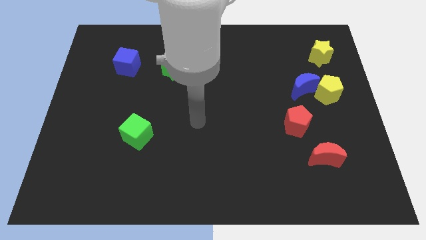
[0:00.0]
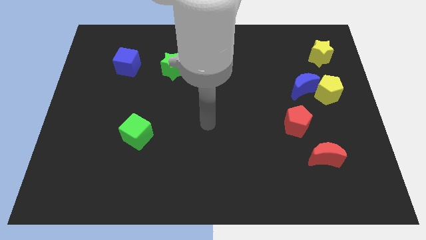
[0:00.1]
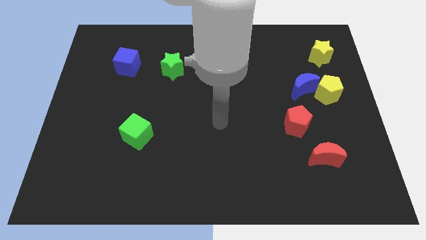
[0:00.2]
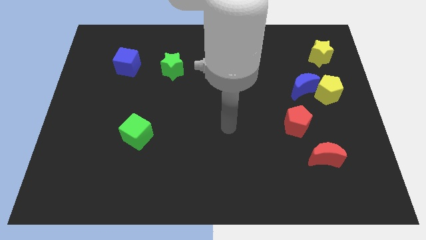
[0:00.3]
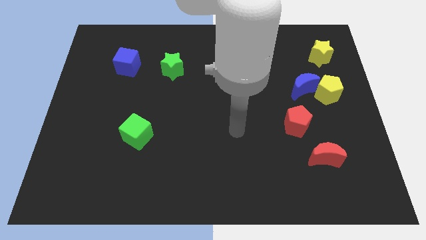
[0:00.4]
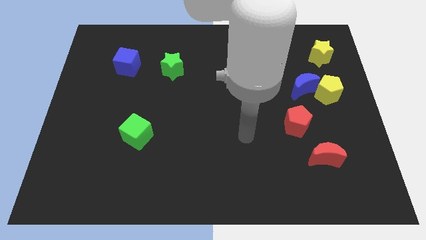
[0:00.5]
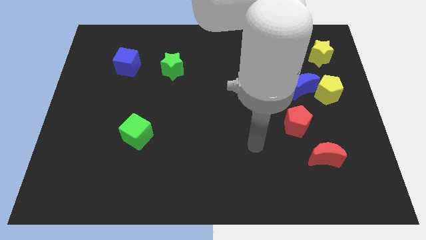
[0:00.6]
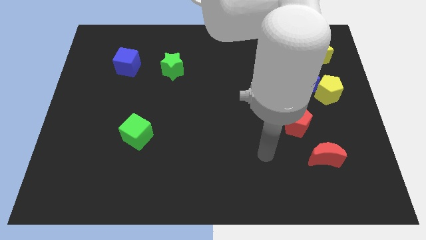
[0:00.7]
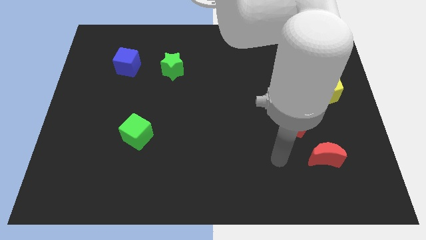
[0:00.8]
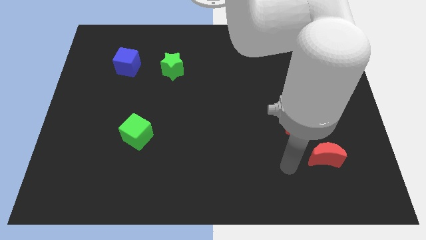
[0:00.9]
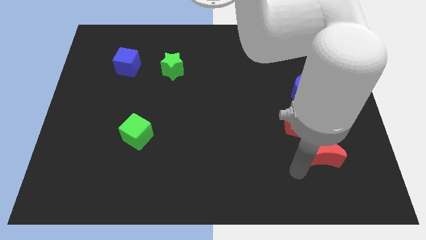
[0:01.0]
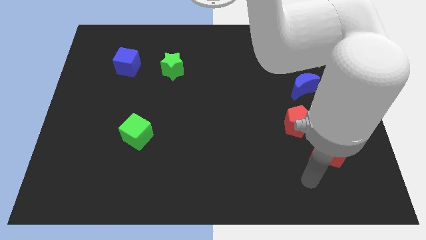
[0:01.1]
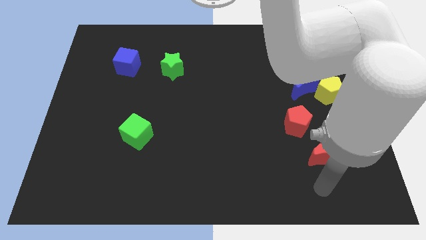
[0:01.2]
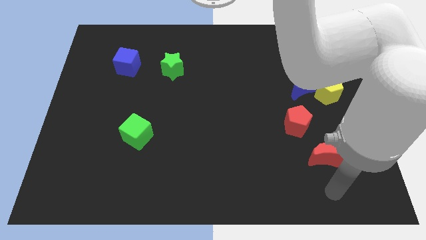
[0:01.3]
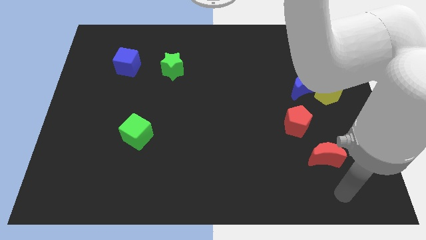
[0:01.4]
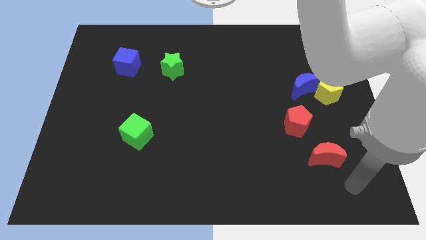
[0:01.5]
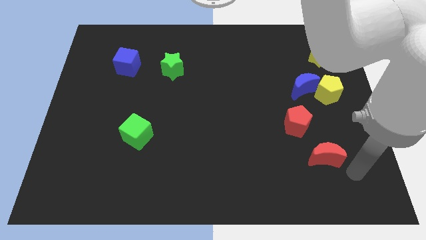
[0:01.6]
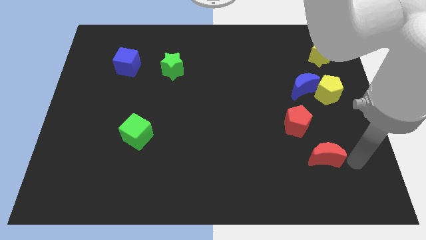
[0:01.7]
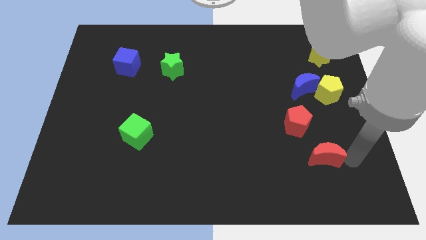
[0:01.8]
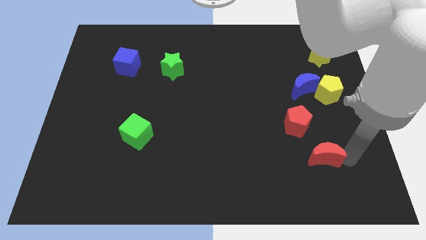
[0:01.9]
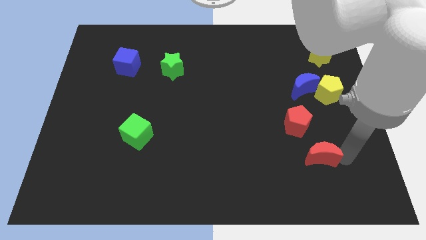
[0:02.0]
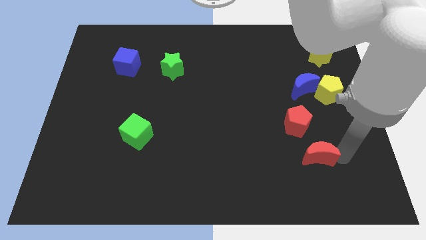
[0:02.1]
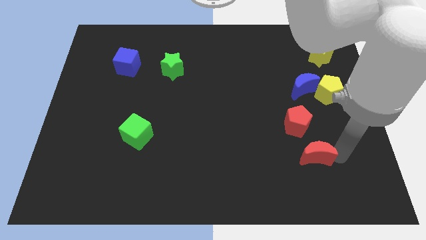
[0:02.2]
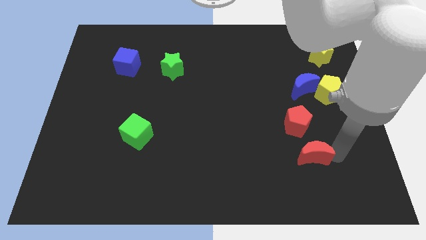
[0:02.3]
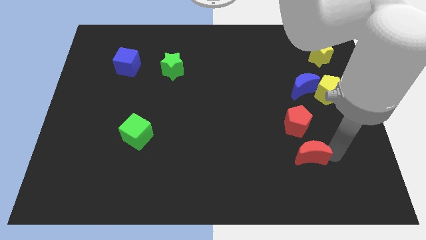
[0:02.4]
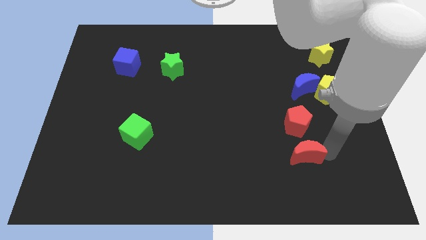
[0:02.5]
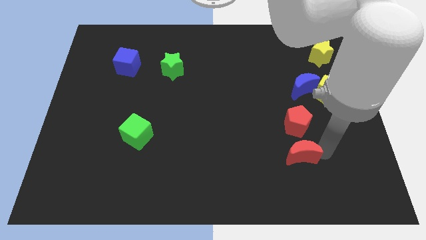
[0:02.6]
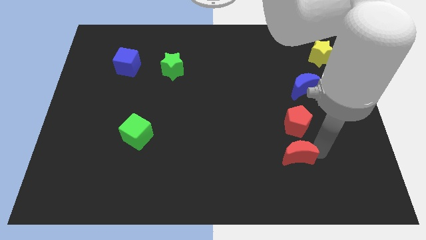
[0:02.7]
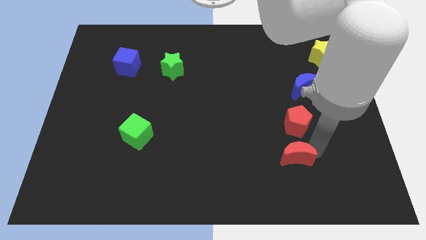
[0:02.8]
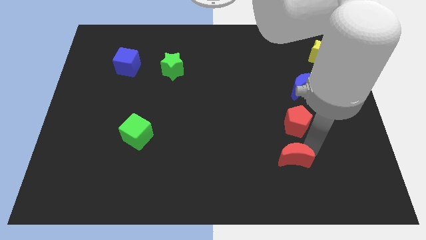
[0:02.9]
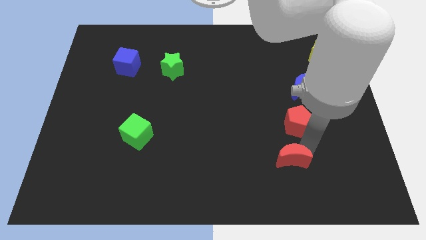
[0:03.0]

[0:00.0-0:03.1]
slightly move the red moon to the left

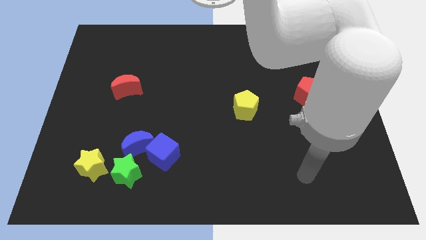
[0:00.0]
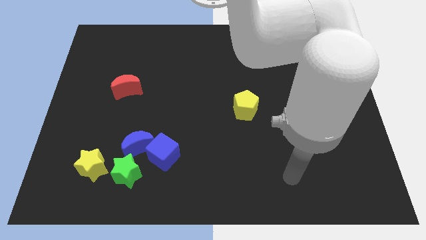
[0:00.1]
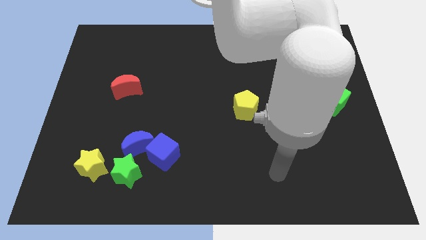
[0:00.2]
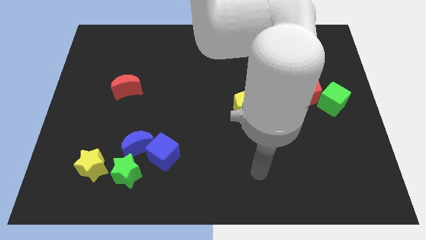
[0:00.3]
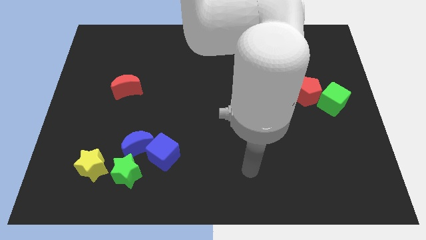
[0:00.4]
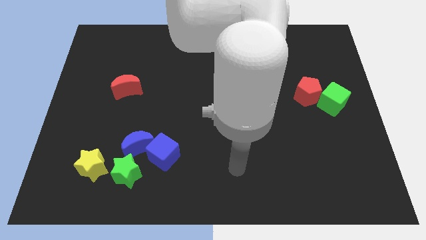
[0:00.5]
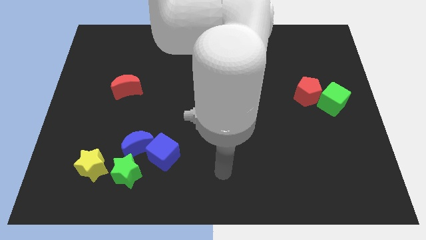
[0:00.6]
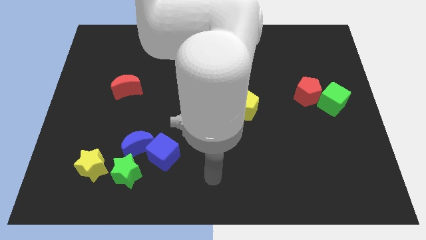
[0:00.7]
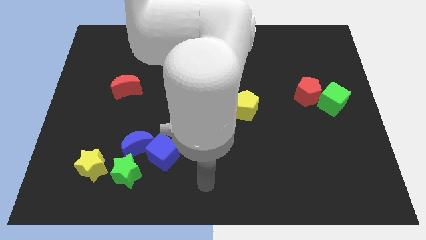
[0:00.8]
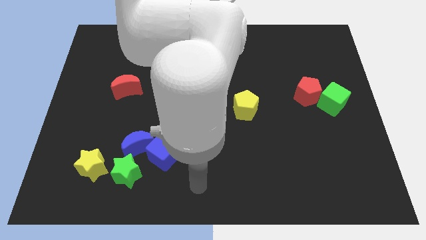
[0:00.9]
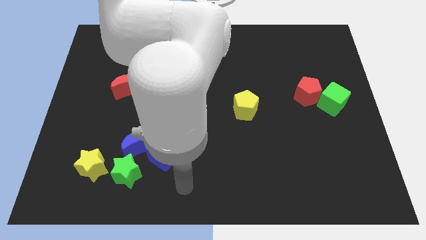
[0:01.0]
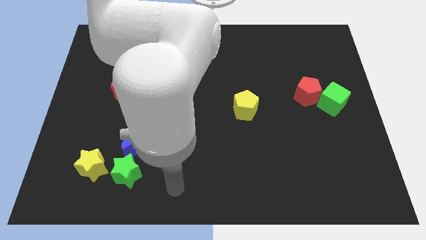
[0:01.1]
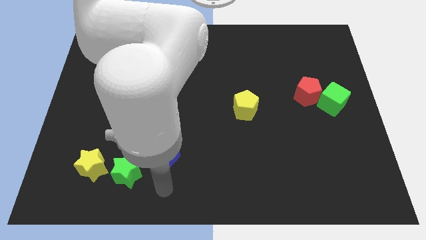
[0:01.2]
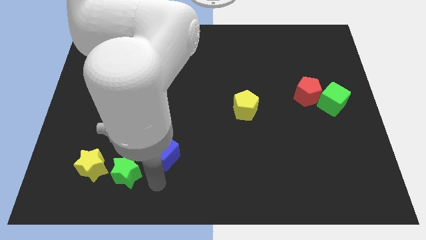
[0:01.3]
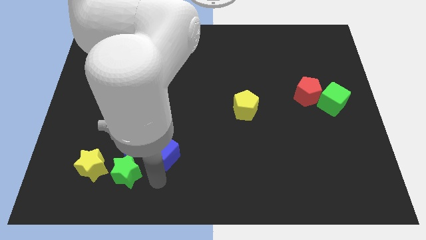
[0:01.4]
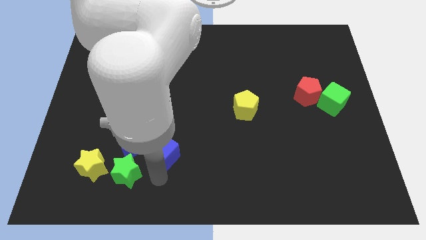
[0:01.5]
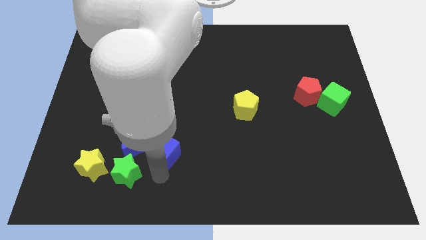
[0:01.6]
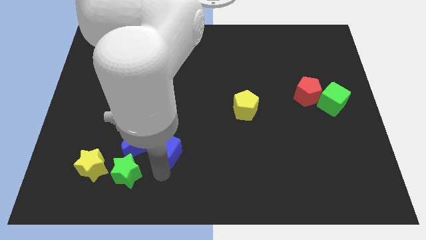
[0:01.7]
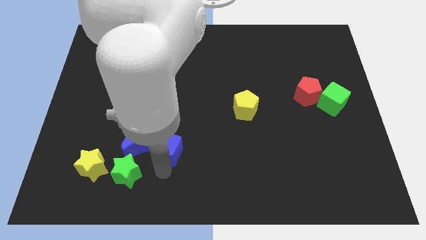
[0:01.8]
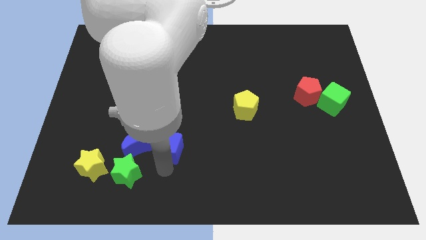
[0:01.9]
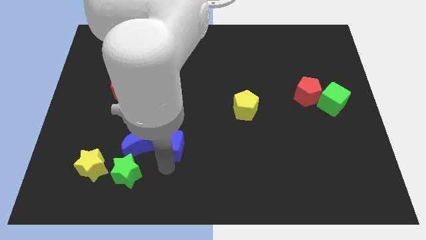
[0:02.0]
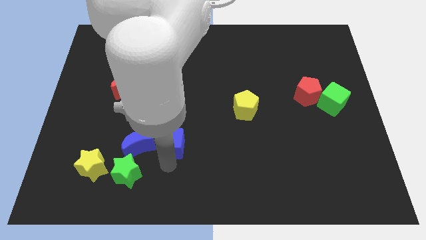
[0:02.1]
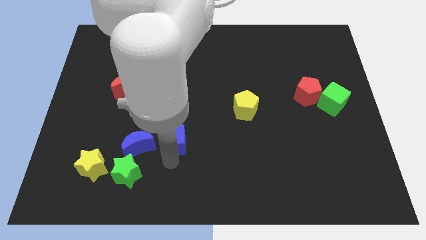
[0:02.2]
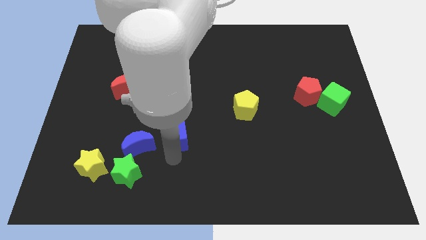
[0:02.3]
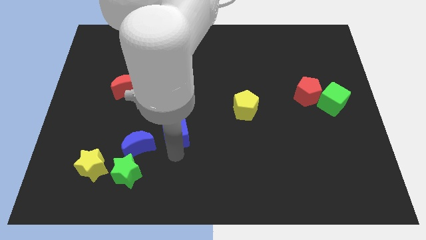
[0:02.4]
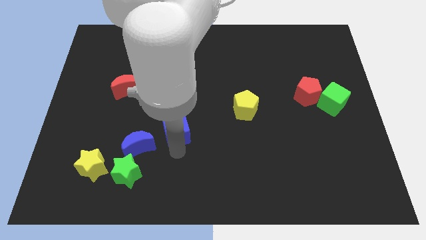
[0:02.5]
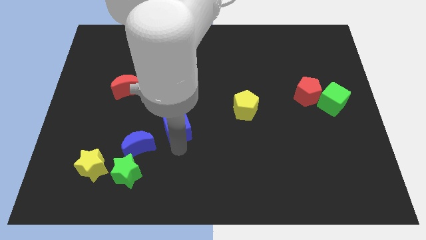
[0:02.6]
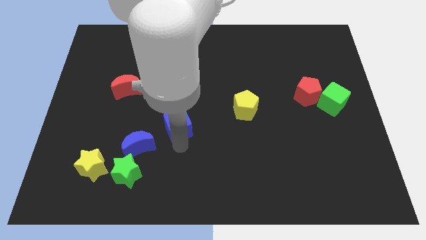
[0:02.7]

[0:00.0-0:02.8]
slightly slide the blue cube up

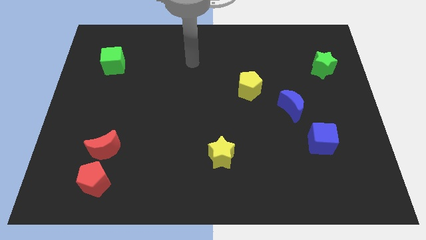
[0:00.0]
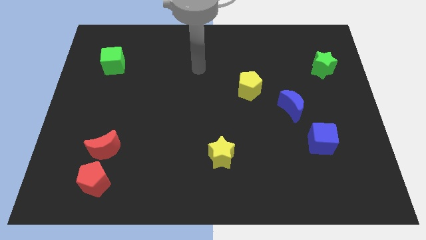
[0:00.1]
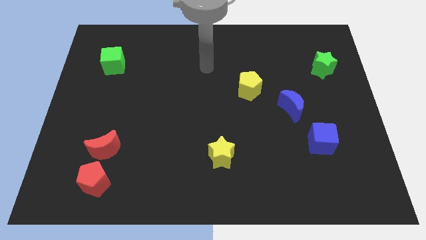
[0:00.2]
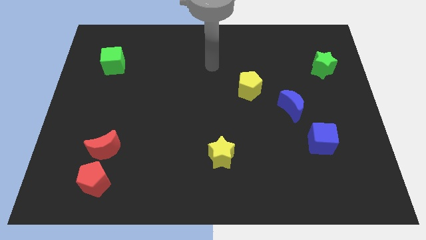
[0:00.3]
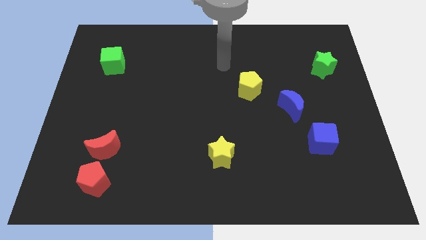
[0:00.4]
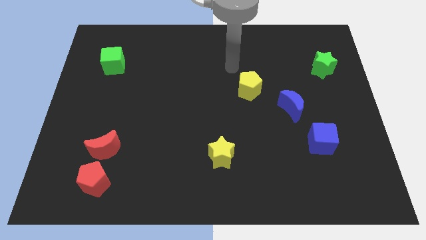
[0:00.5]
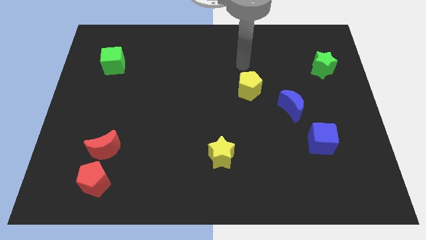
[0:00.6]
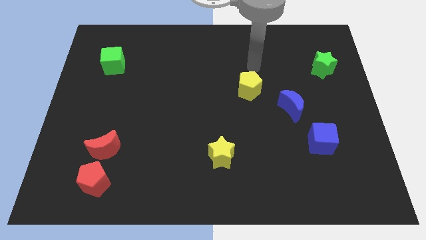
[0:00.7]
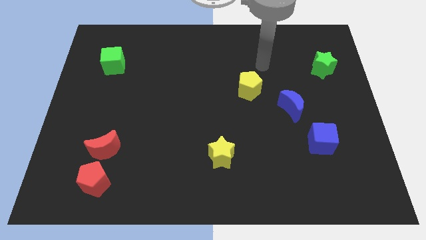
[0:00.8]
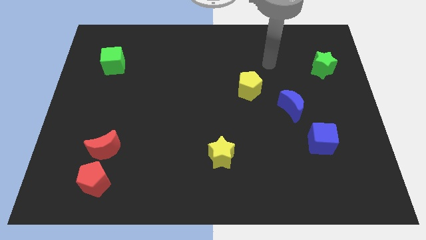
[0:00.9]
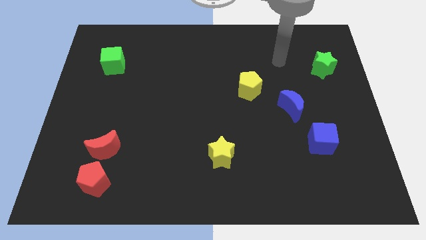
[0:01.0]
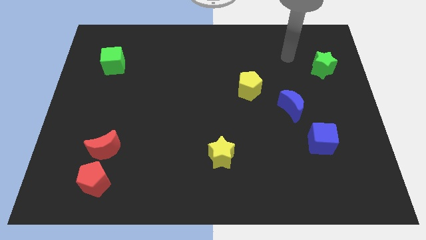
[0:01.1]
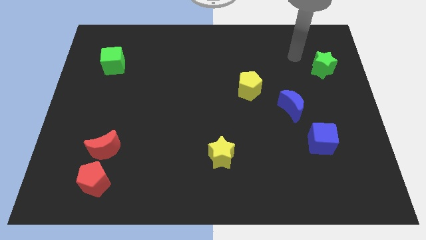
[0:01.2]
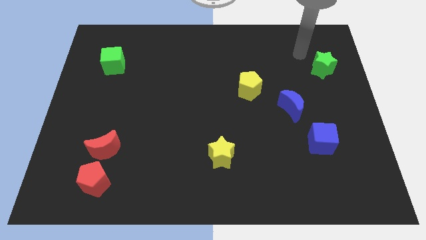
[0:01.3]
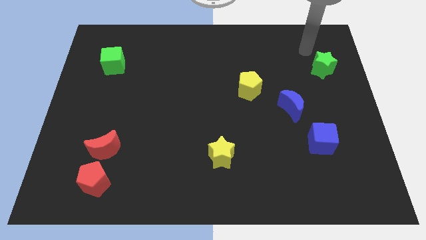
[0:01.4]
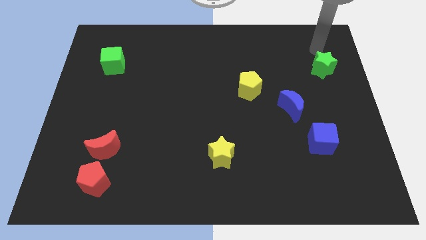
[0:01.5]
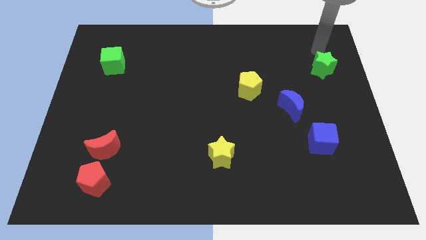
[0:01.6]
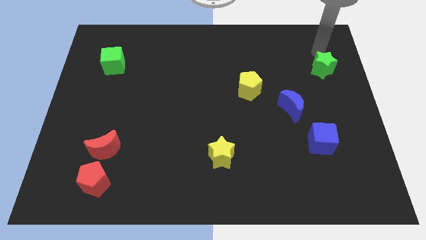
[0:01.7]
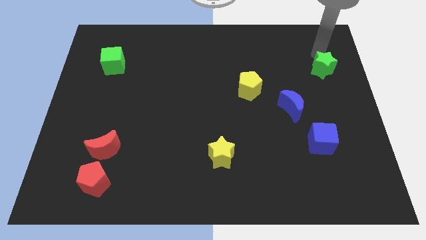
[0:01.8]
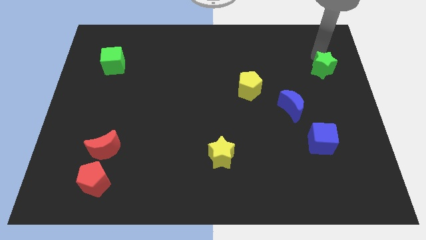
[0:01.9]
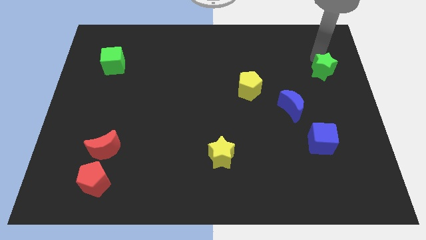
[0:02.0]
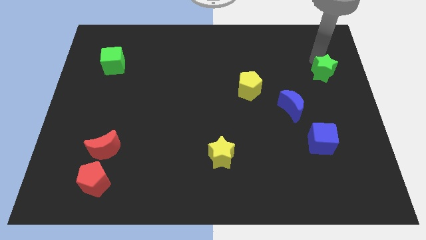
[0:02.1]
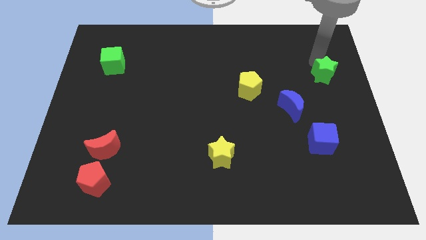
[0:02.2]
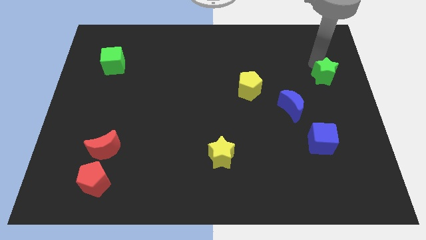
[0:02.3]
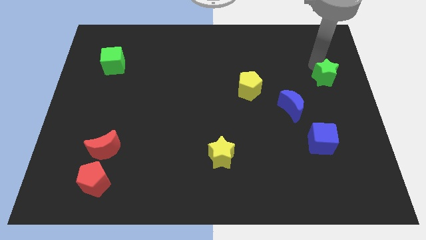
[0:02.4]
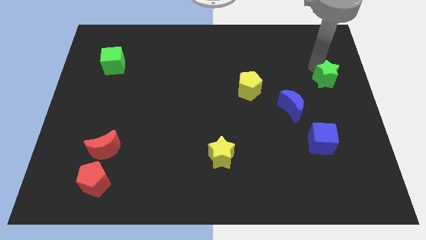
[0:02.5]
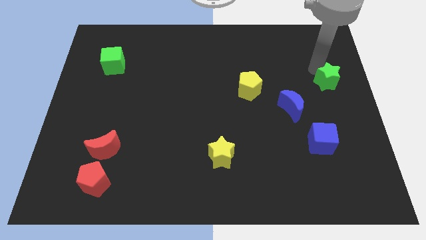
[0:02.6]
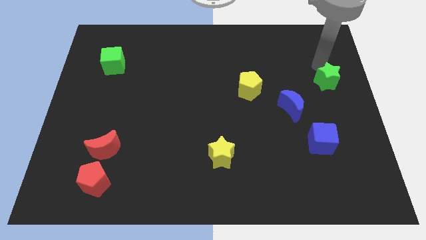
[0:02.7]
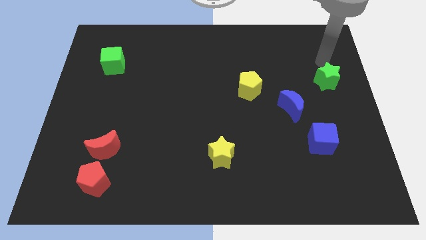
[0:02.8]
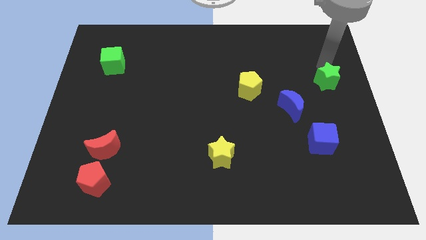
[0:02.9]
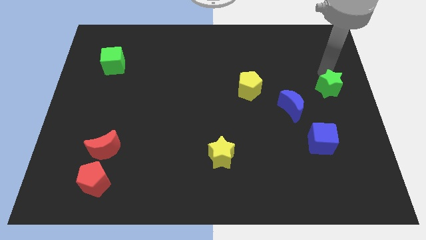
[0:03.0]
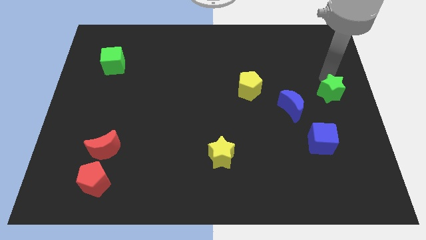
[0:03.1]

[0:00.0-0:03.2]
move the green star downwards slightly
